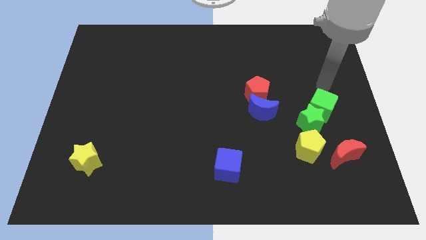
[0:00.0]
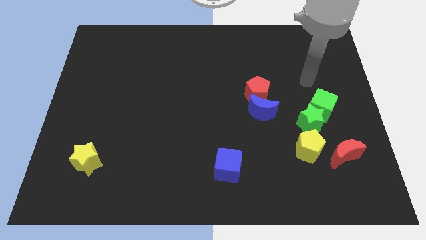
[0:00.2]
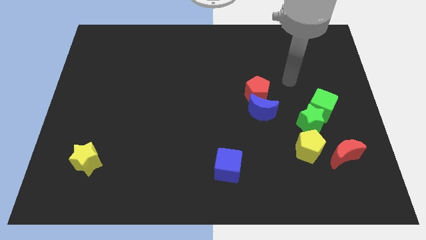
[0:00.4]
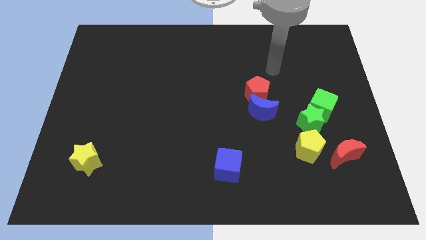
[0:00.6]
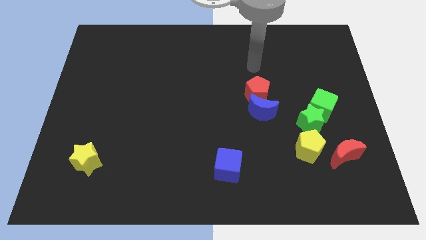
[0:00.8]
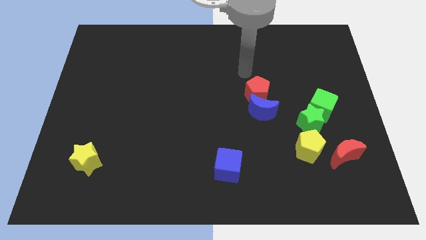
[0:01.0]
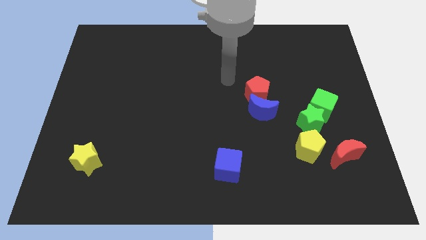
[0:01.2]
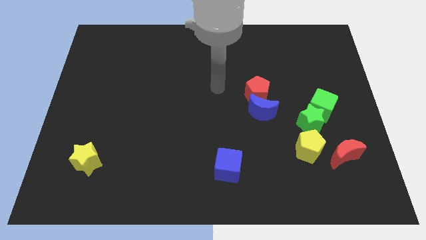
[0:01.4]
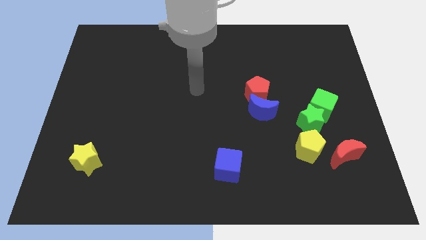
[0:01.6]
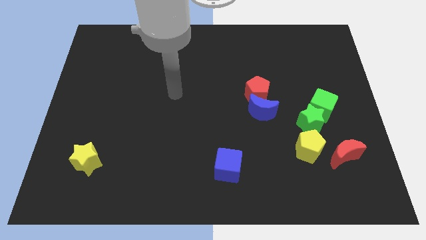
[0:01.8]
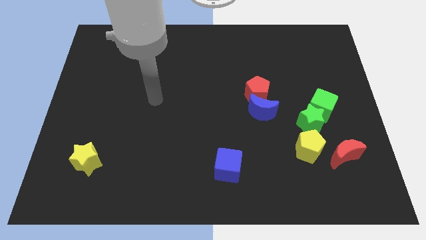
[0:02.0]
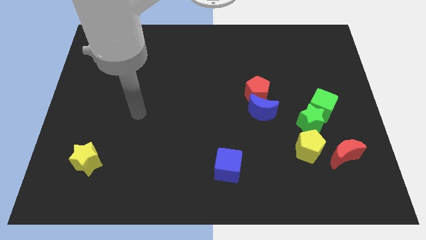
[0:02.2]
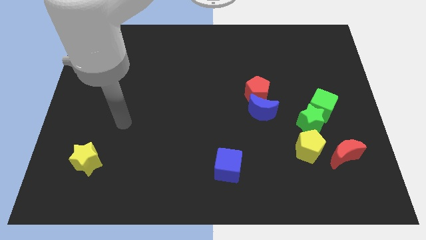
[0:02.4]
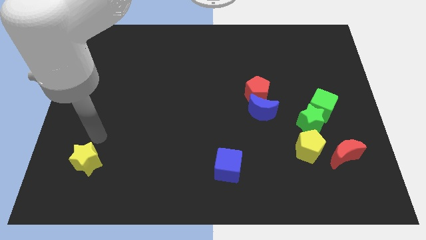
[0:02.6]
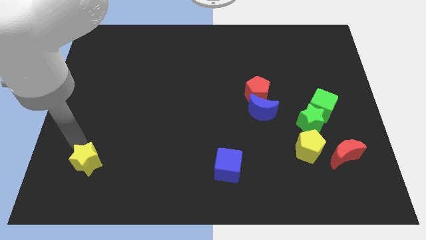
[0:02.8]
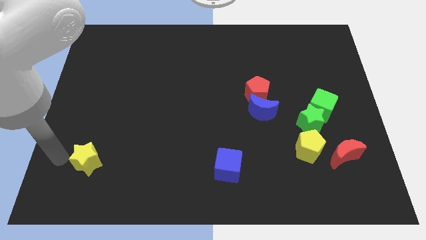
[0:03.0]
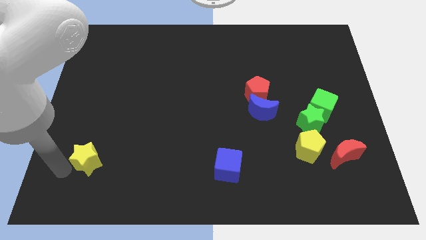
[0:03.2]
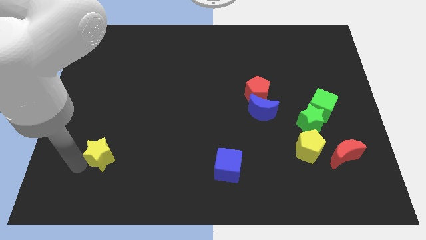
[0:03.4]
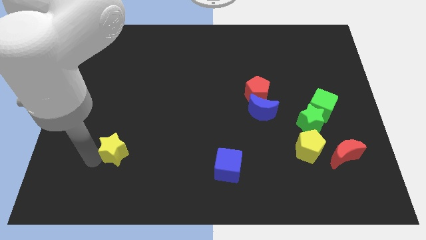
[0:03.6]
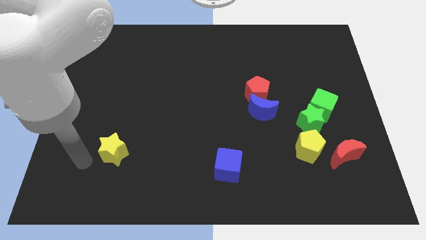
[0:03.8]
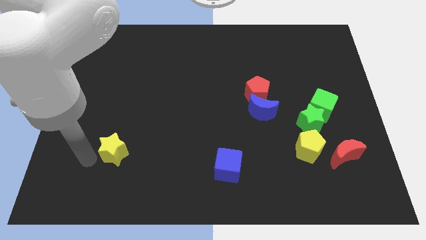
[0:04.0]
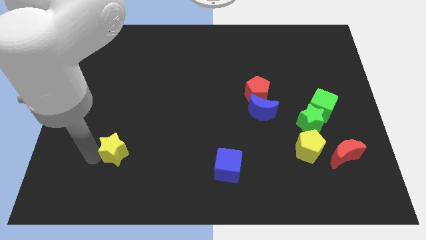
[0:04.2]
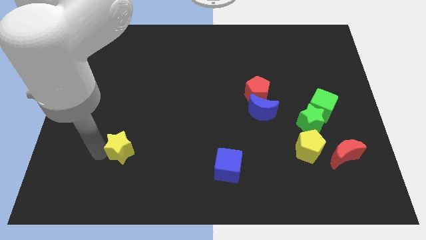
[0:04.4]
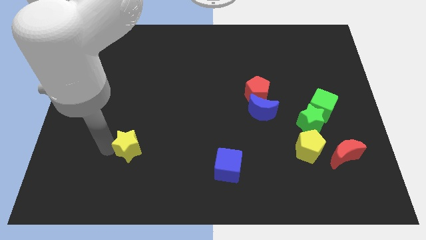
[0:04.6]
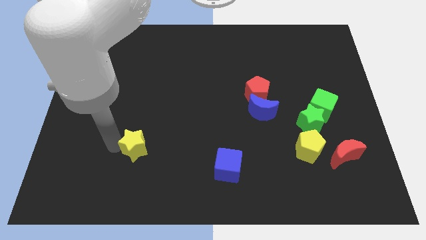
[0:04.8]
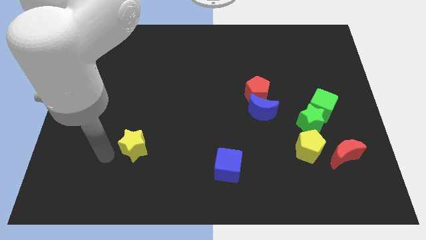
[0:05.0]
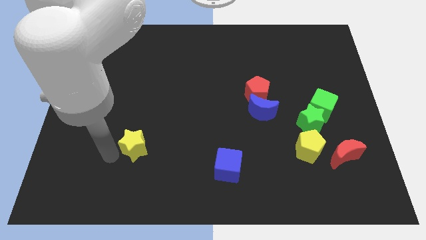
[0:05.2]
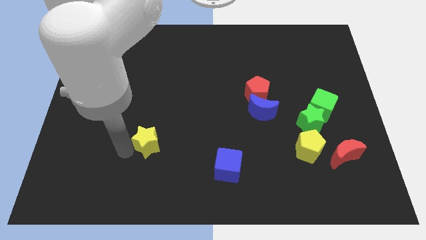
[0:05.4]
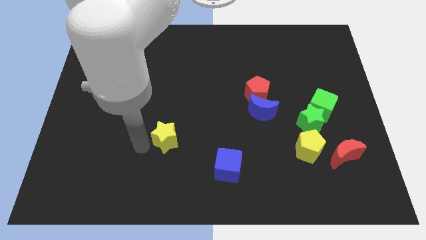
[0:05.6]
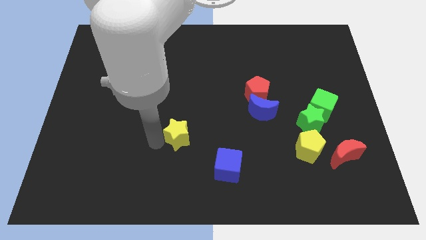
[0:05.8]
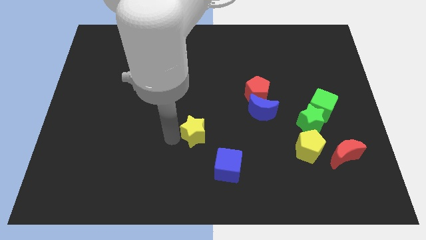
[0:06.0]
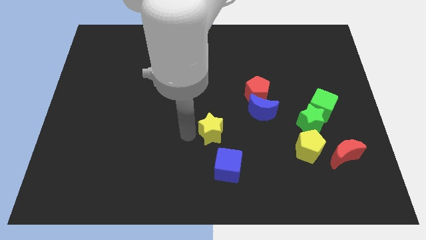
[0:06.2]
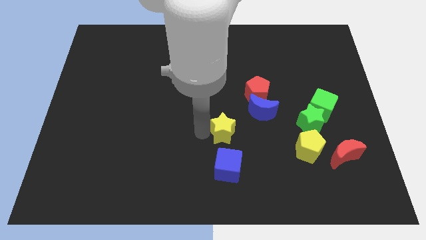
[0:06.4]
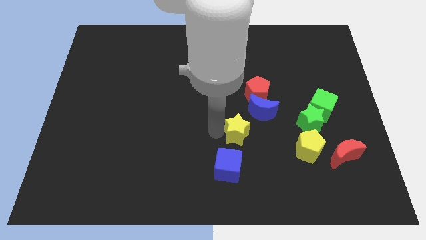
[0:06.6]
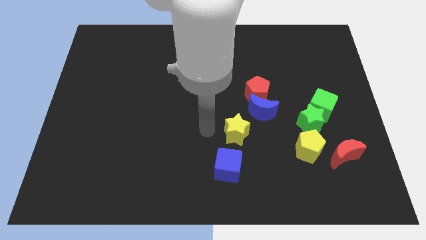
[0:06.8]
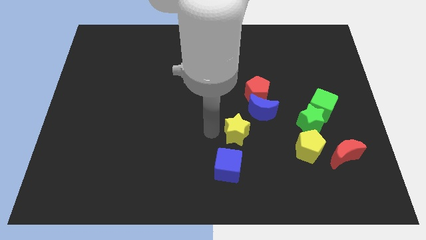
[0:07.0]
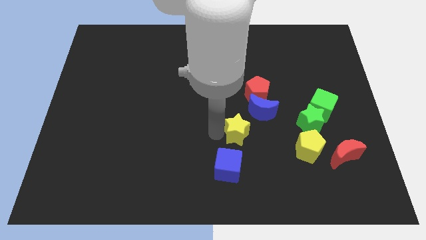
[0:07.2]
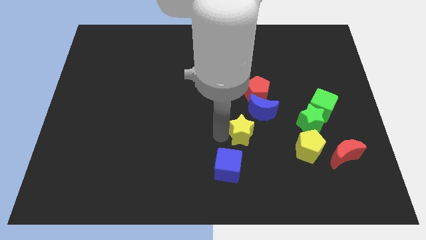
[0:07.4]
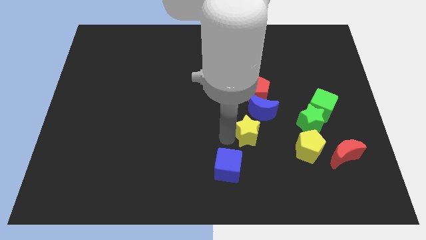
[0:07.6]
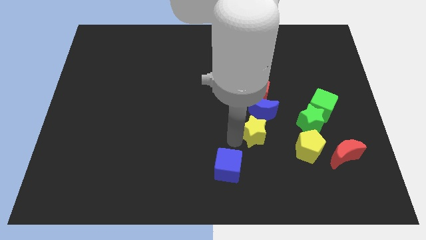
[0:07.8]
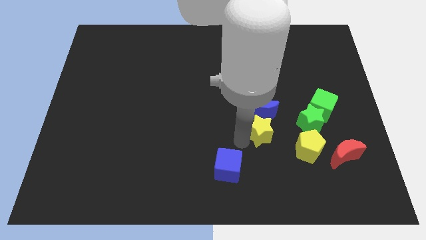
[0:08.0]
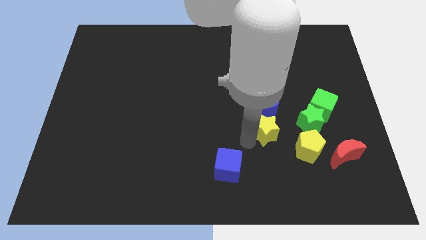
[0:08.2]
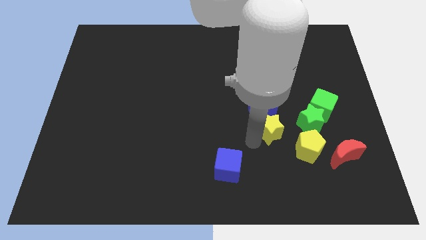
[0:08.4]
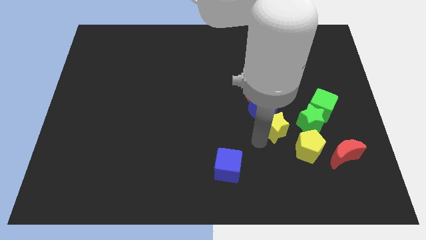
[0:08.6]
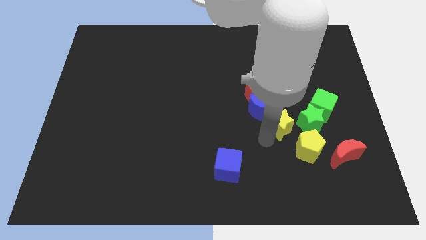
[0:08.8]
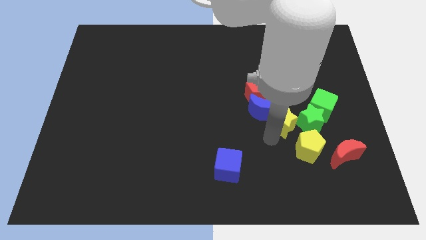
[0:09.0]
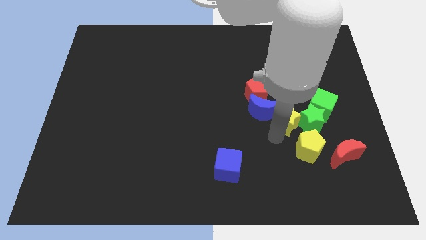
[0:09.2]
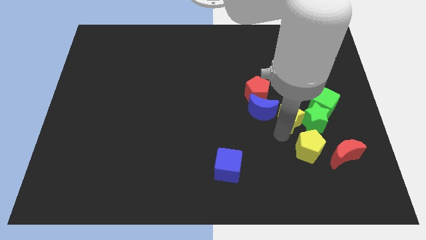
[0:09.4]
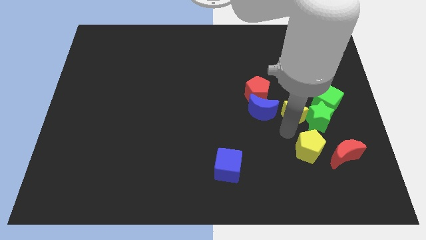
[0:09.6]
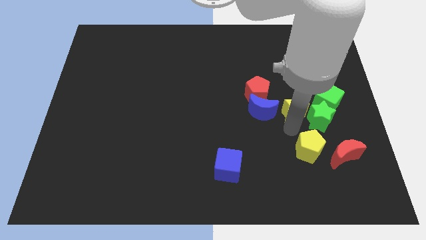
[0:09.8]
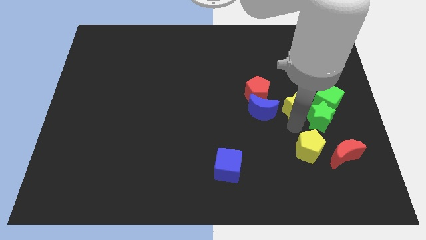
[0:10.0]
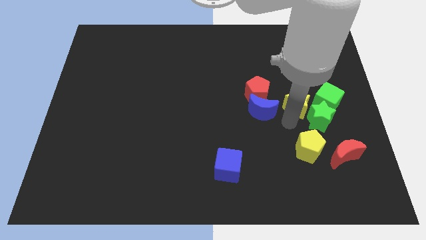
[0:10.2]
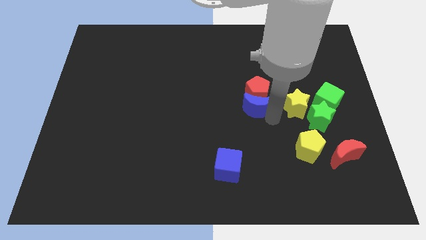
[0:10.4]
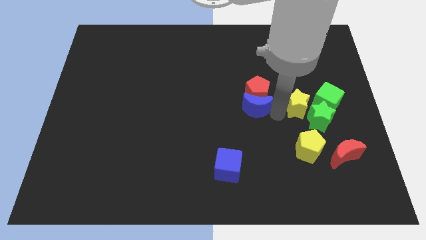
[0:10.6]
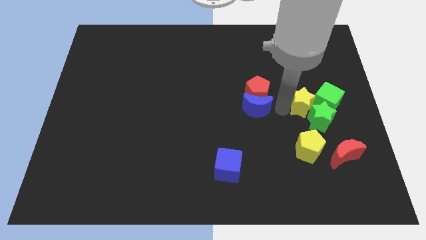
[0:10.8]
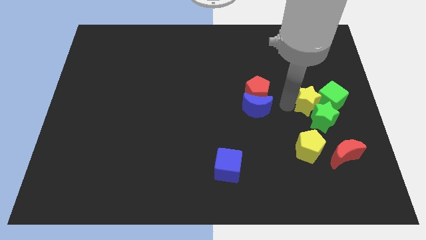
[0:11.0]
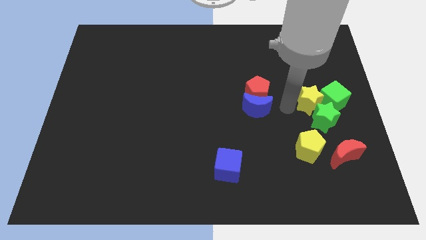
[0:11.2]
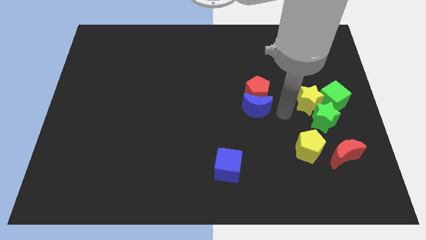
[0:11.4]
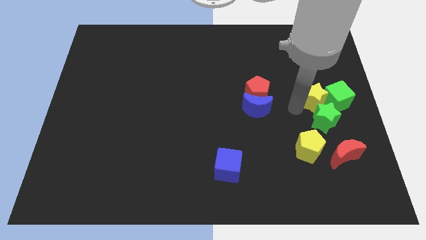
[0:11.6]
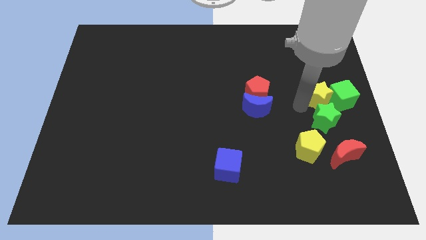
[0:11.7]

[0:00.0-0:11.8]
slide the yellow star to the right side of the board
